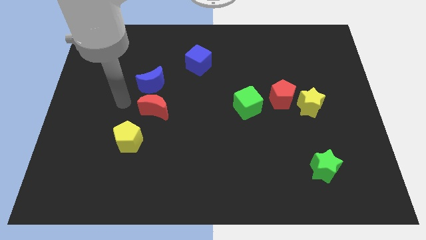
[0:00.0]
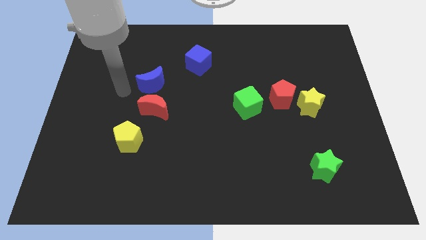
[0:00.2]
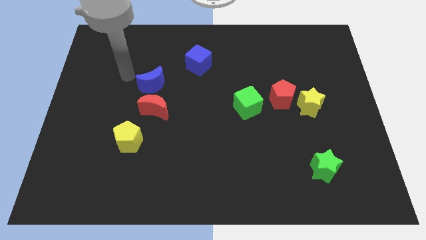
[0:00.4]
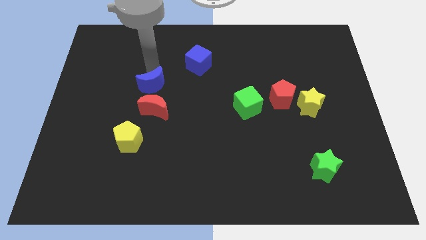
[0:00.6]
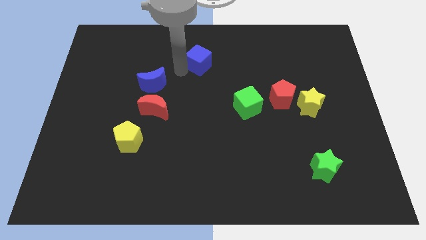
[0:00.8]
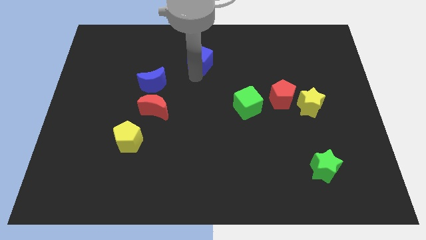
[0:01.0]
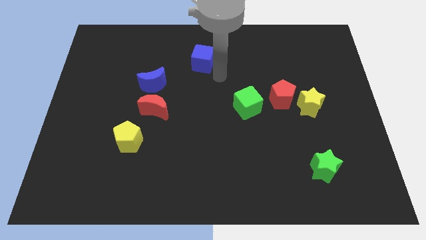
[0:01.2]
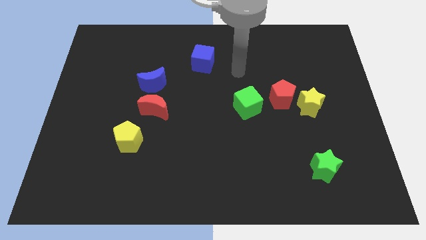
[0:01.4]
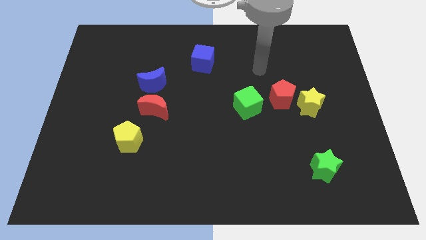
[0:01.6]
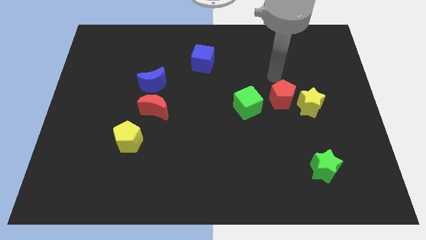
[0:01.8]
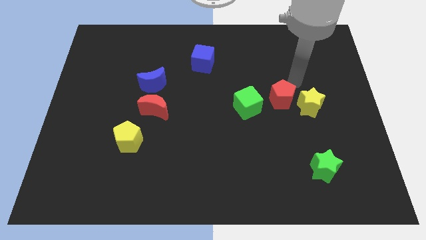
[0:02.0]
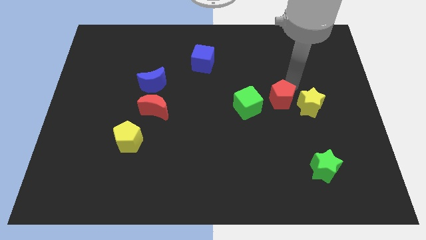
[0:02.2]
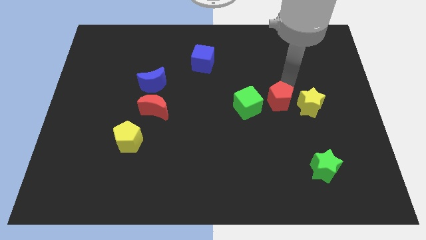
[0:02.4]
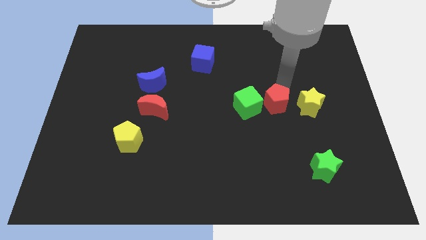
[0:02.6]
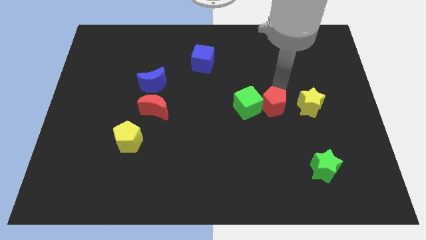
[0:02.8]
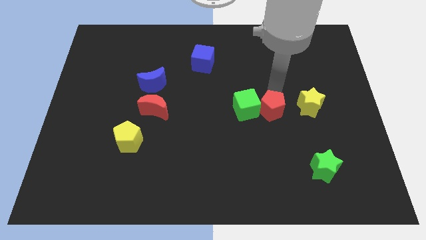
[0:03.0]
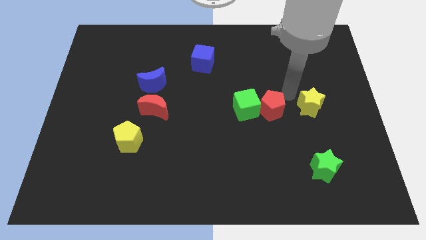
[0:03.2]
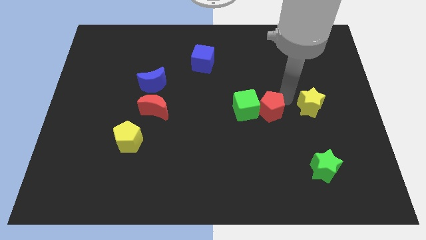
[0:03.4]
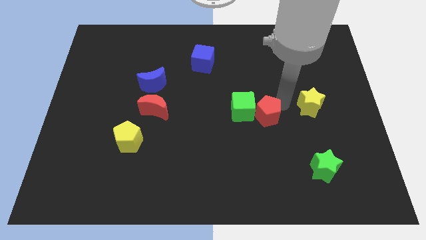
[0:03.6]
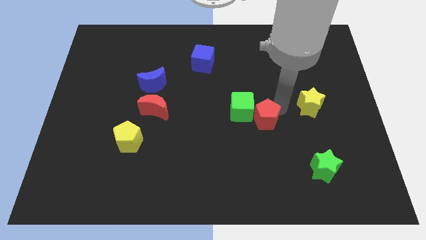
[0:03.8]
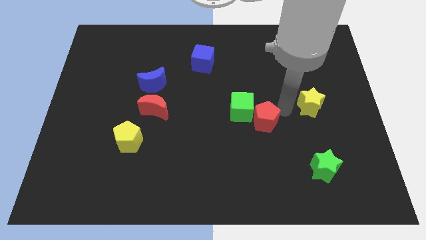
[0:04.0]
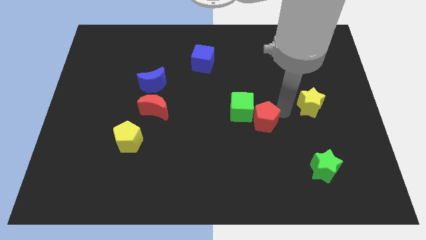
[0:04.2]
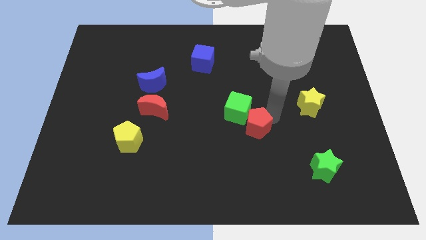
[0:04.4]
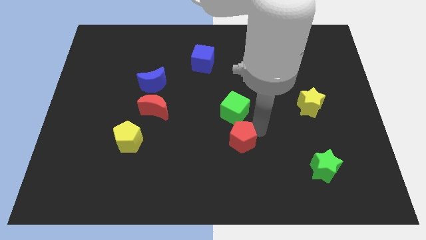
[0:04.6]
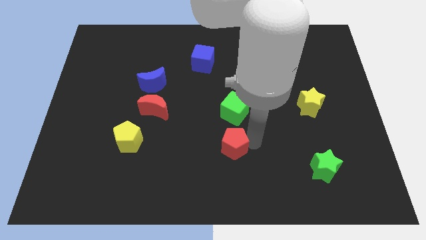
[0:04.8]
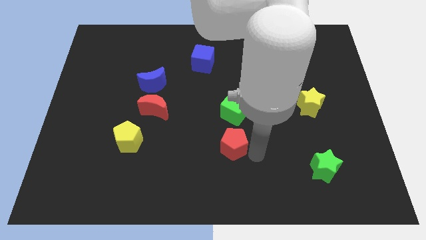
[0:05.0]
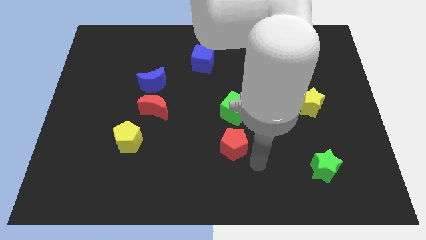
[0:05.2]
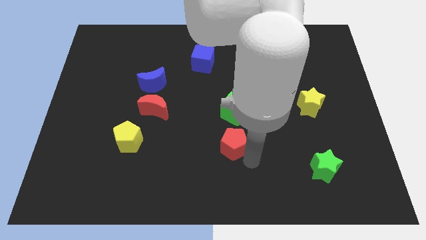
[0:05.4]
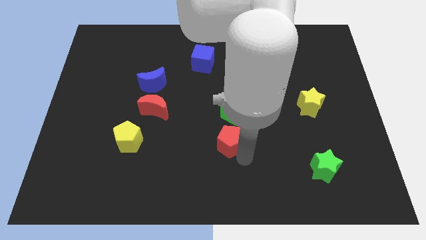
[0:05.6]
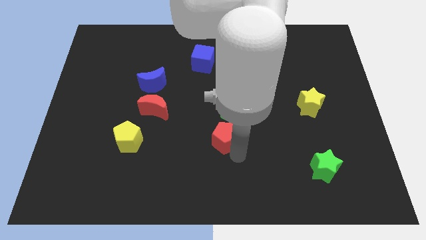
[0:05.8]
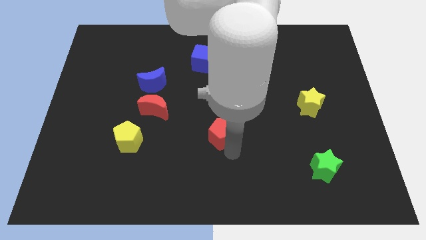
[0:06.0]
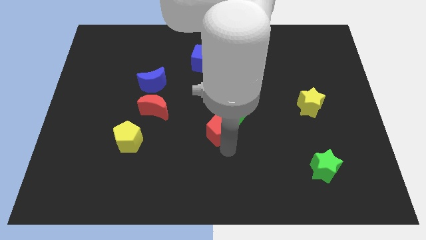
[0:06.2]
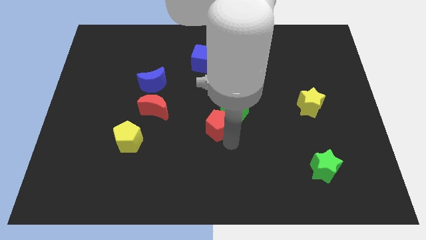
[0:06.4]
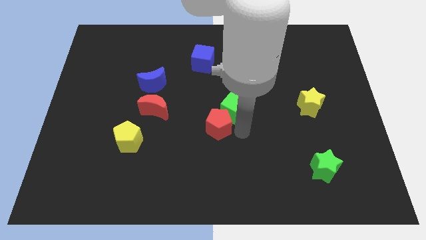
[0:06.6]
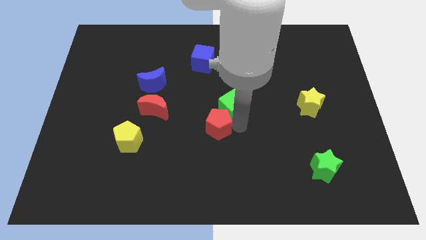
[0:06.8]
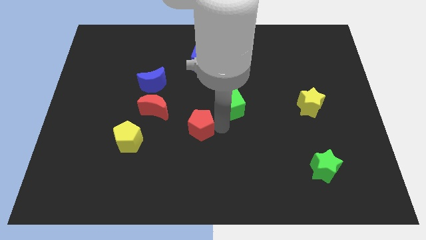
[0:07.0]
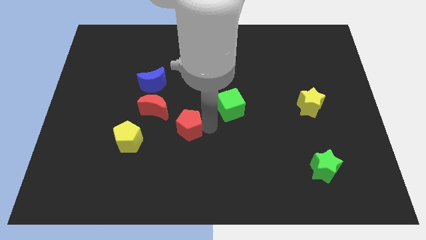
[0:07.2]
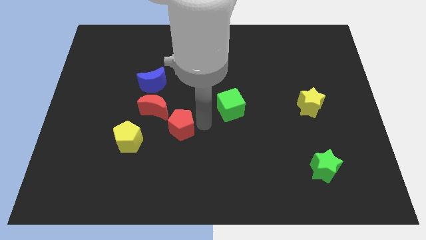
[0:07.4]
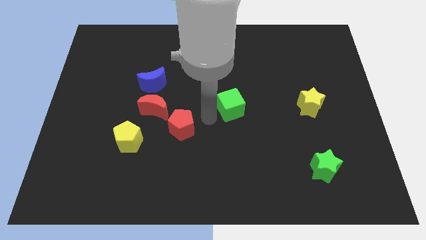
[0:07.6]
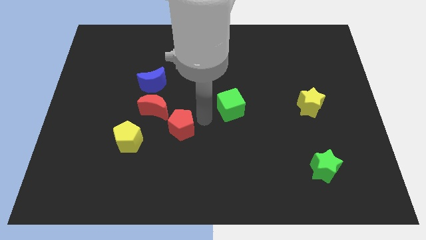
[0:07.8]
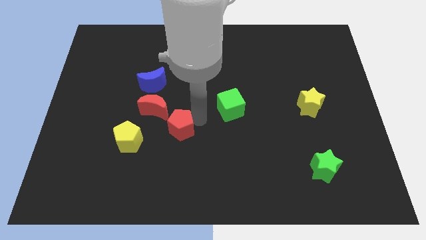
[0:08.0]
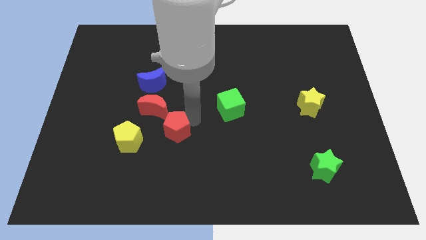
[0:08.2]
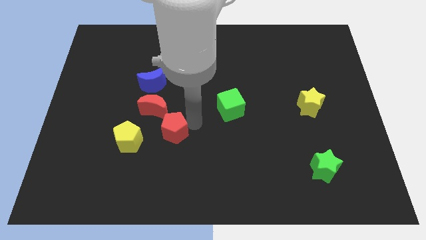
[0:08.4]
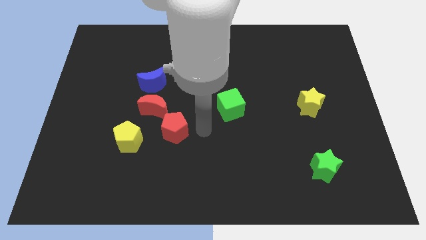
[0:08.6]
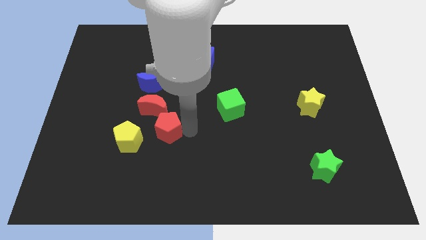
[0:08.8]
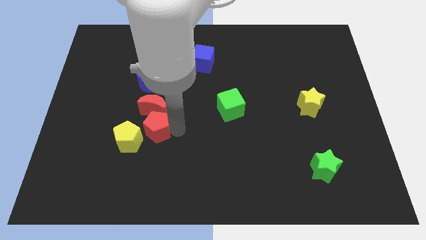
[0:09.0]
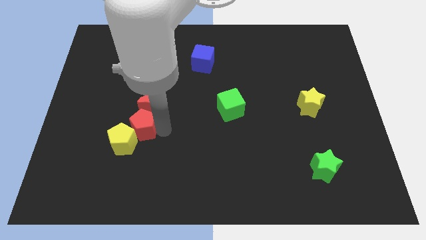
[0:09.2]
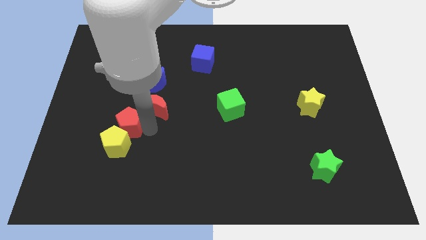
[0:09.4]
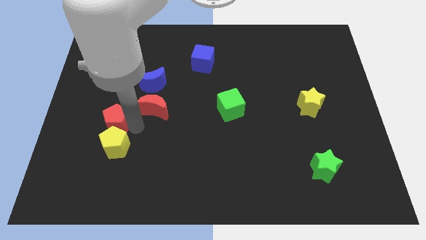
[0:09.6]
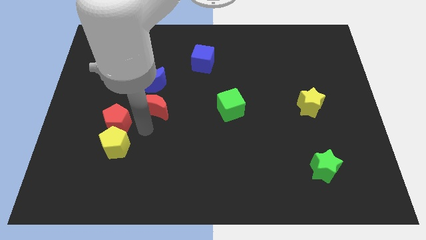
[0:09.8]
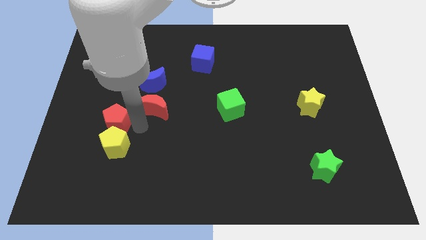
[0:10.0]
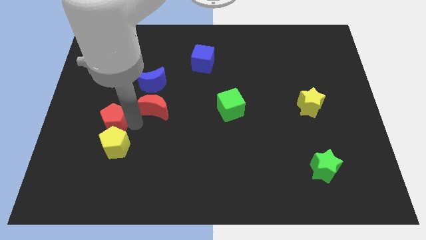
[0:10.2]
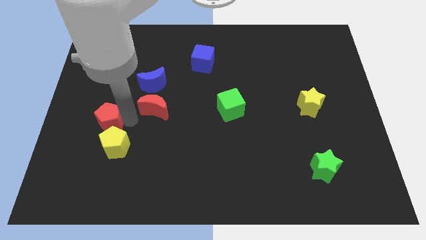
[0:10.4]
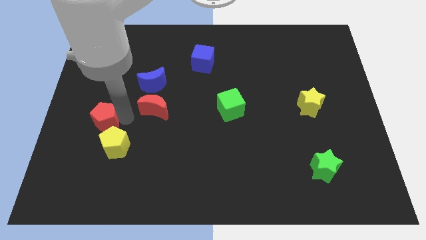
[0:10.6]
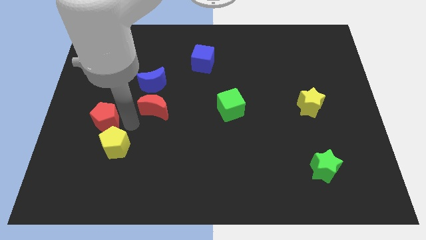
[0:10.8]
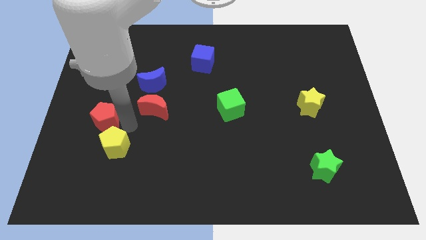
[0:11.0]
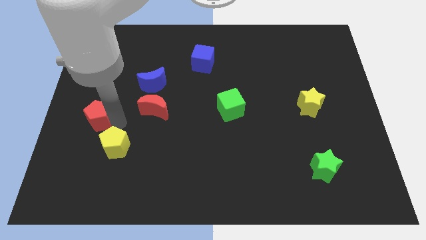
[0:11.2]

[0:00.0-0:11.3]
slide the red pentagon to the left side

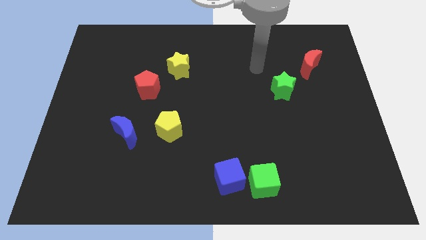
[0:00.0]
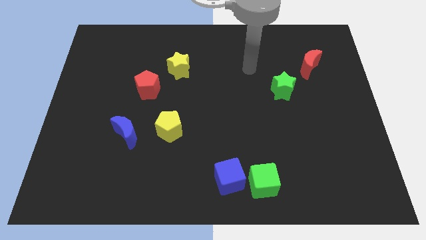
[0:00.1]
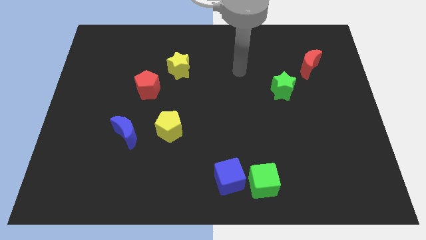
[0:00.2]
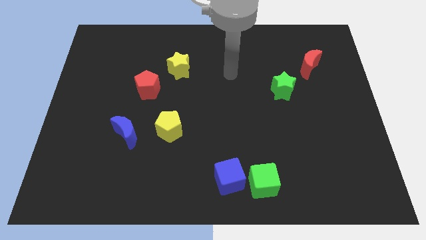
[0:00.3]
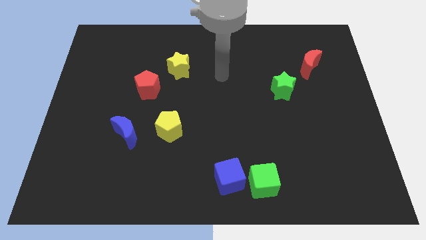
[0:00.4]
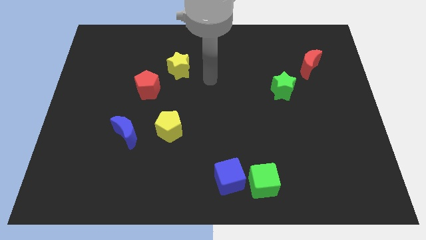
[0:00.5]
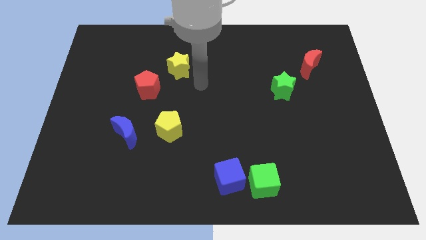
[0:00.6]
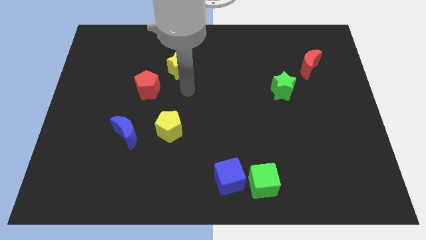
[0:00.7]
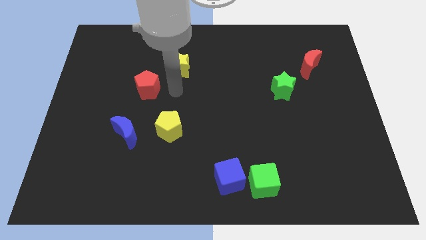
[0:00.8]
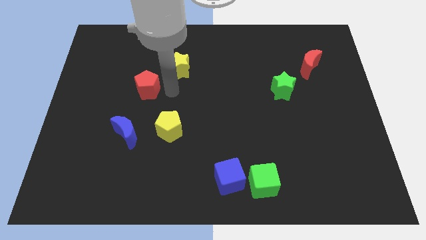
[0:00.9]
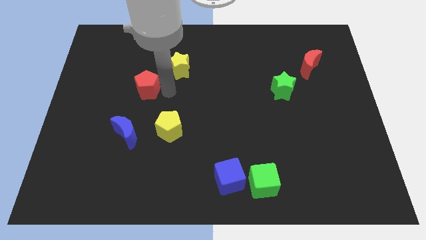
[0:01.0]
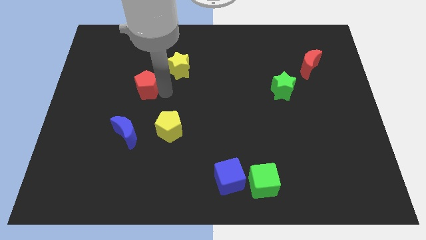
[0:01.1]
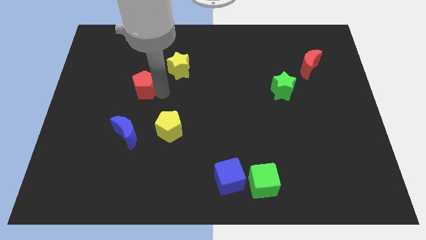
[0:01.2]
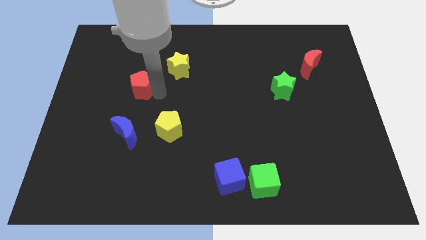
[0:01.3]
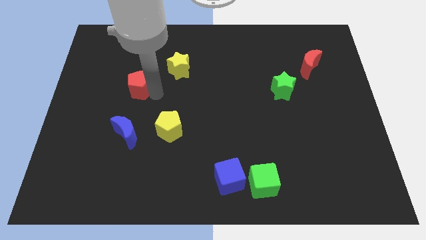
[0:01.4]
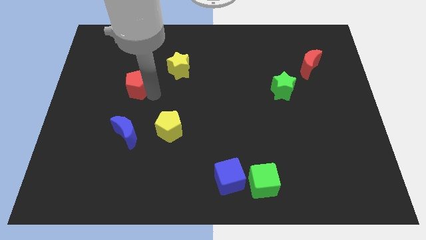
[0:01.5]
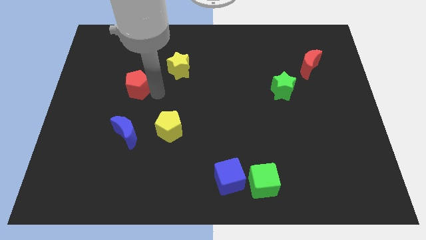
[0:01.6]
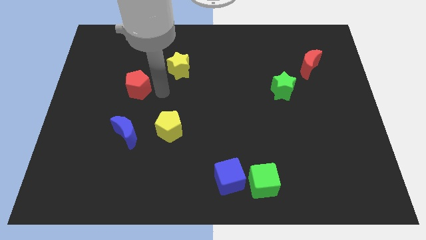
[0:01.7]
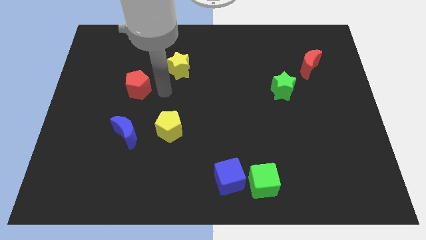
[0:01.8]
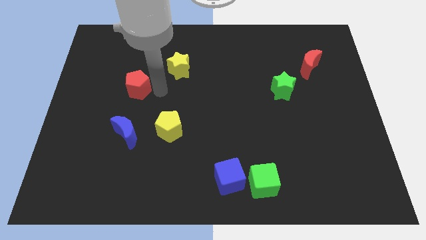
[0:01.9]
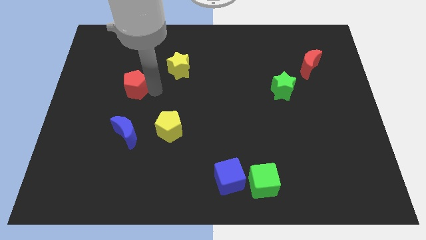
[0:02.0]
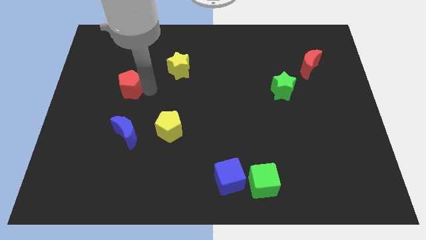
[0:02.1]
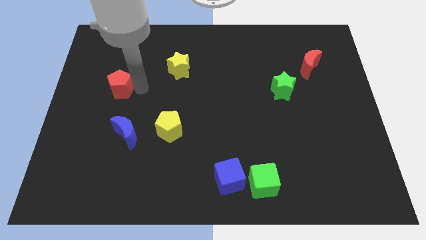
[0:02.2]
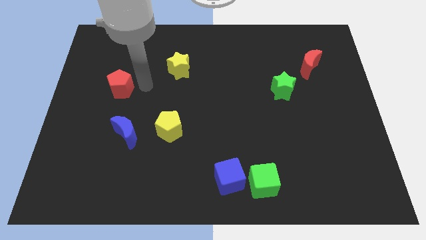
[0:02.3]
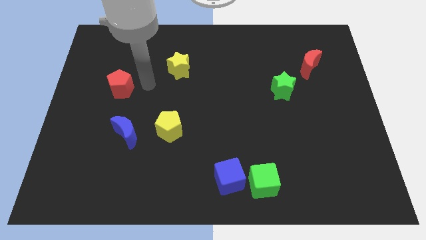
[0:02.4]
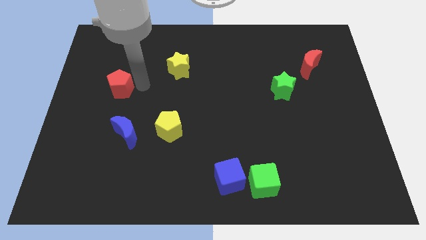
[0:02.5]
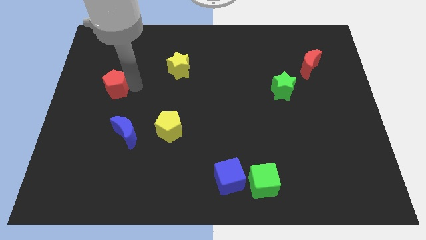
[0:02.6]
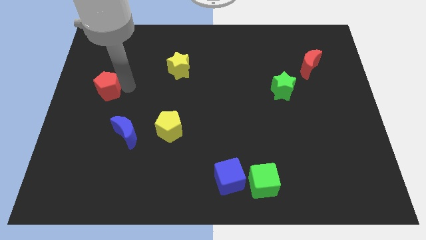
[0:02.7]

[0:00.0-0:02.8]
move the red pentagon to the left side
